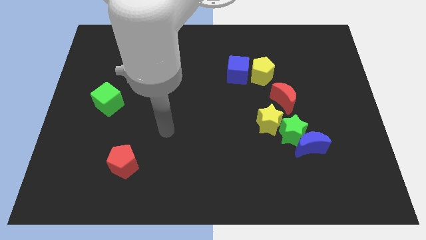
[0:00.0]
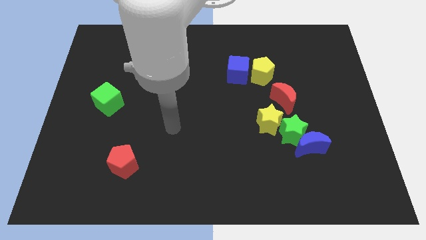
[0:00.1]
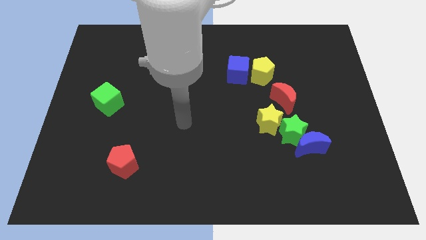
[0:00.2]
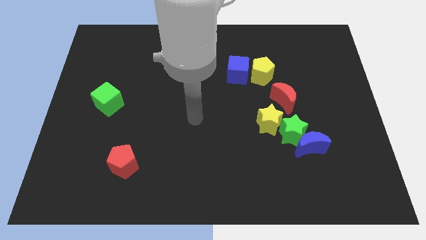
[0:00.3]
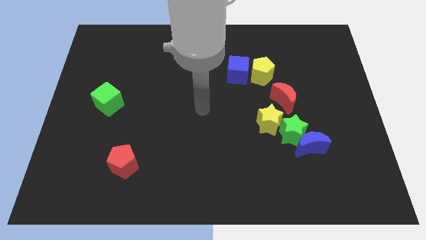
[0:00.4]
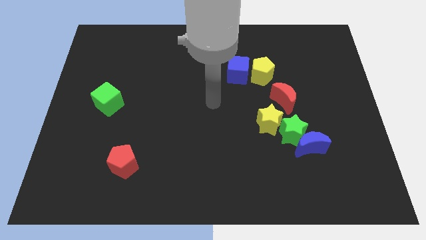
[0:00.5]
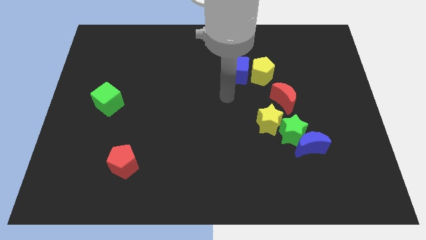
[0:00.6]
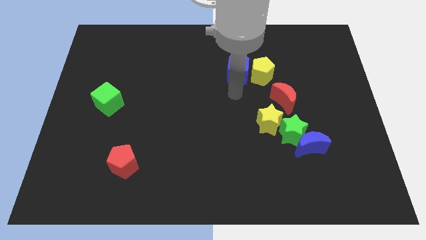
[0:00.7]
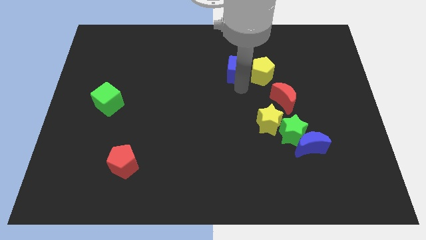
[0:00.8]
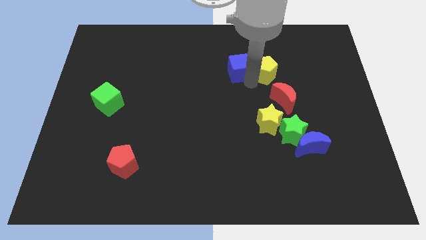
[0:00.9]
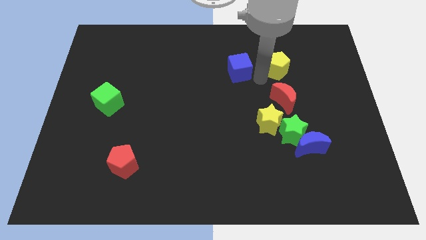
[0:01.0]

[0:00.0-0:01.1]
move the blue cube away from the yellow pentagon

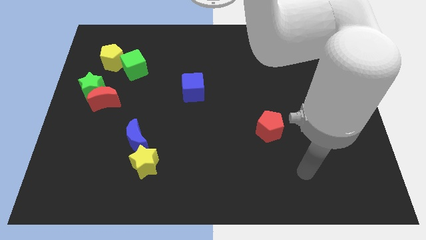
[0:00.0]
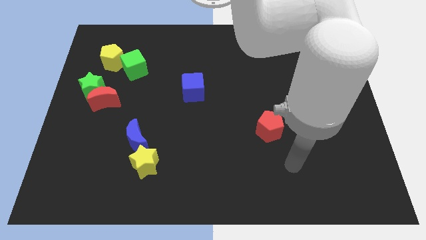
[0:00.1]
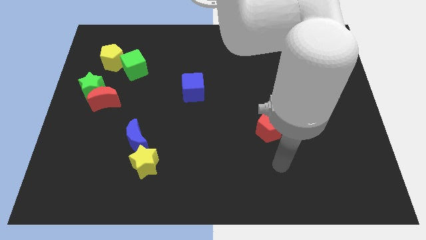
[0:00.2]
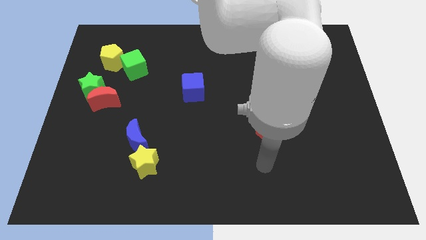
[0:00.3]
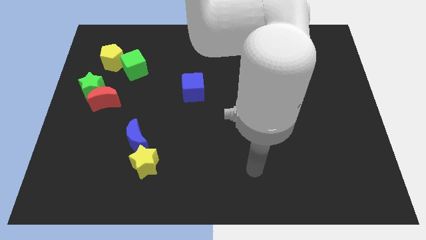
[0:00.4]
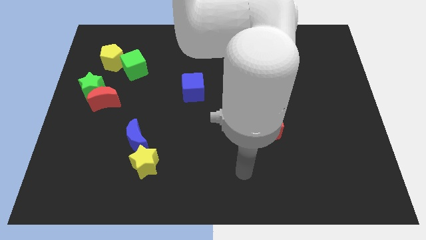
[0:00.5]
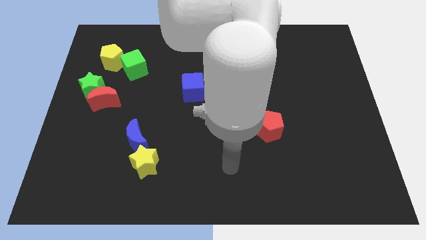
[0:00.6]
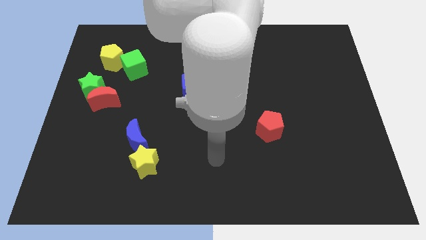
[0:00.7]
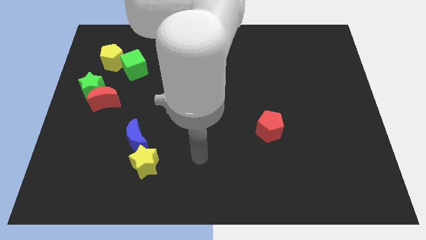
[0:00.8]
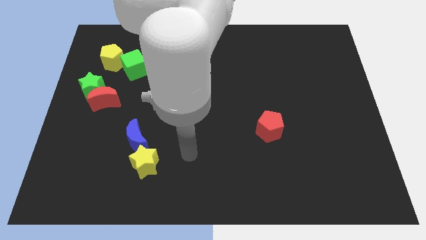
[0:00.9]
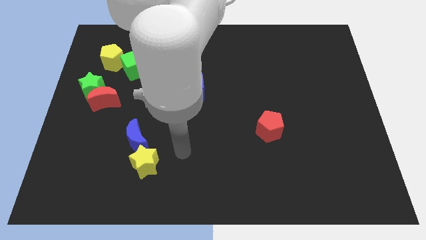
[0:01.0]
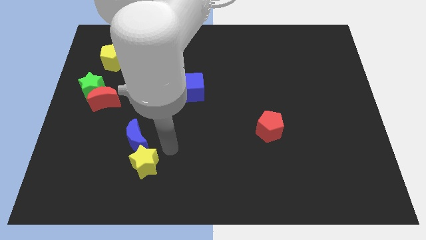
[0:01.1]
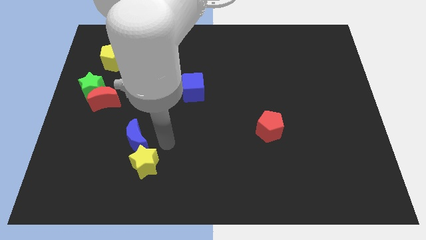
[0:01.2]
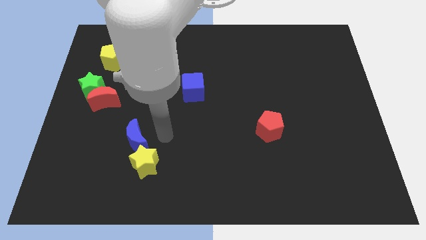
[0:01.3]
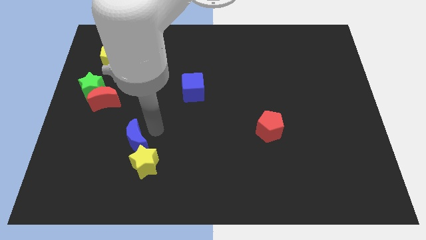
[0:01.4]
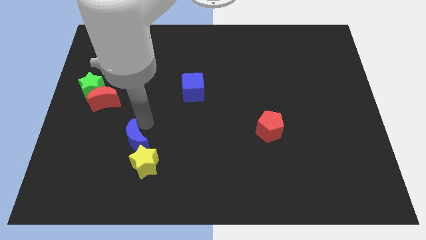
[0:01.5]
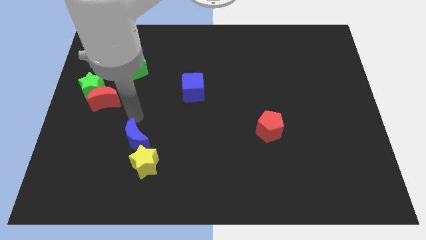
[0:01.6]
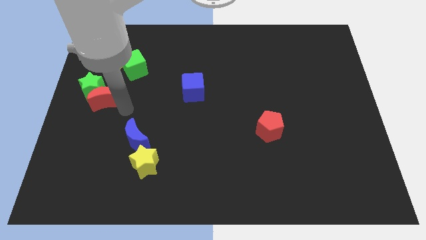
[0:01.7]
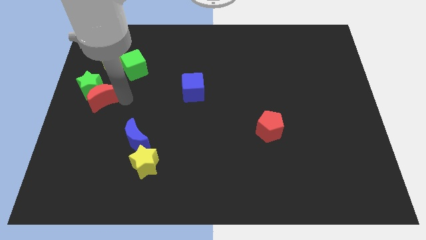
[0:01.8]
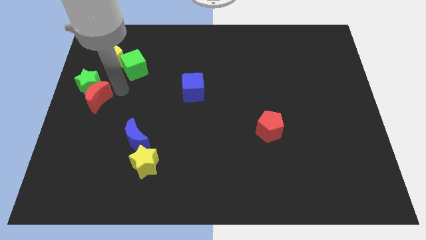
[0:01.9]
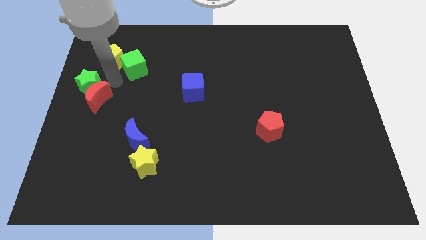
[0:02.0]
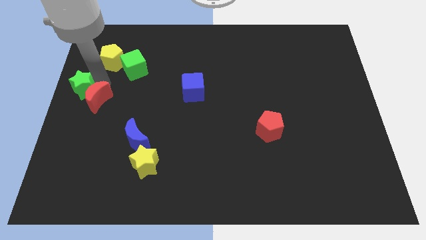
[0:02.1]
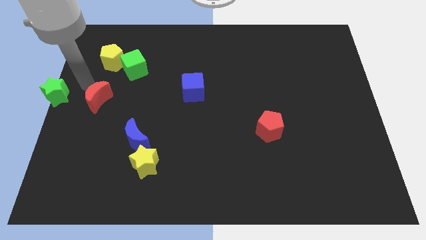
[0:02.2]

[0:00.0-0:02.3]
separate the red moon from the green star

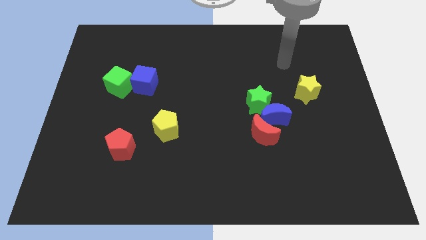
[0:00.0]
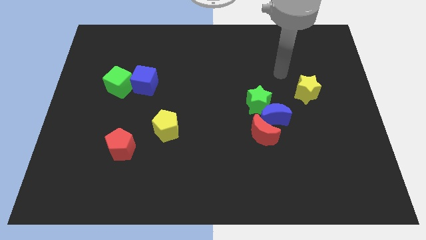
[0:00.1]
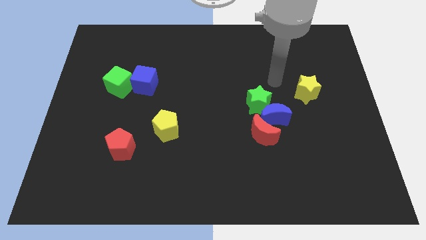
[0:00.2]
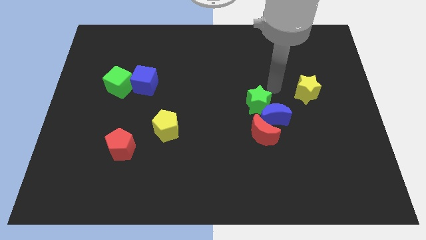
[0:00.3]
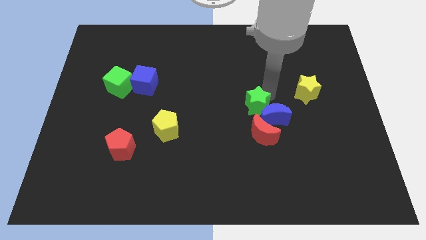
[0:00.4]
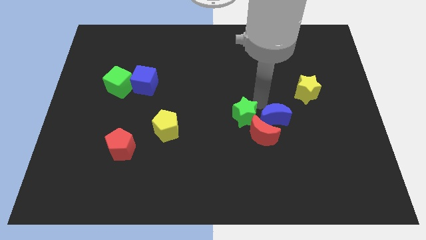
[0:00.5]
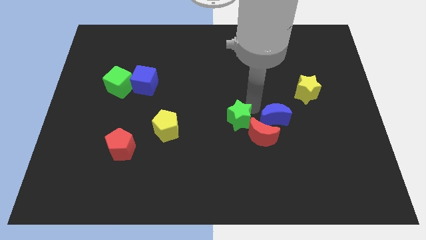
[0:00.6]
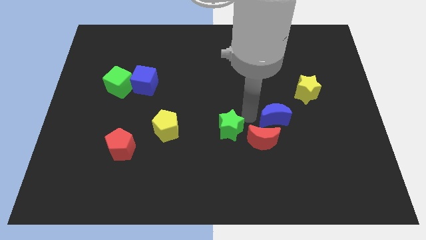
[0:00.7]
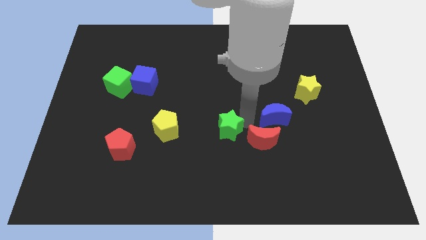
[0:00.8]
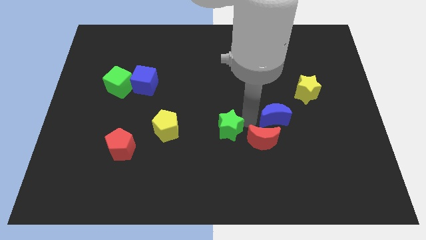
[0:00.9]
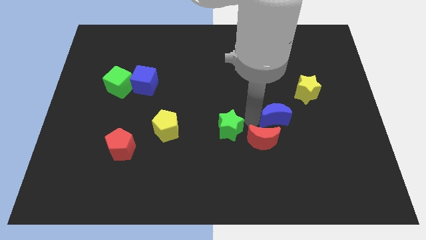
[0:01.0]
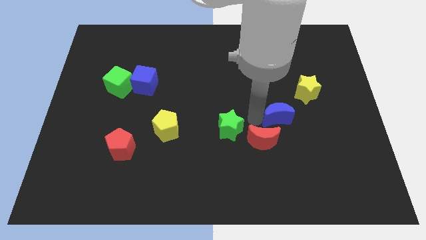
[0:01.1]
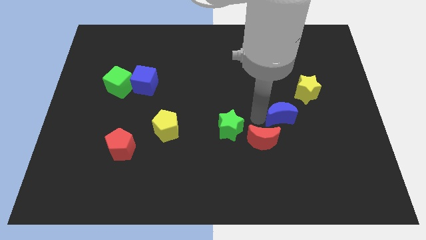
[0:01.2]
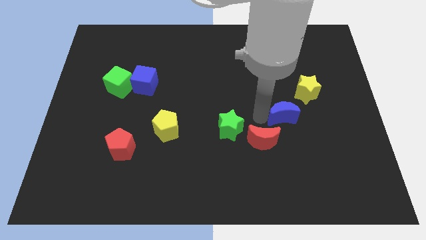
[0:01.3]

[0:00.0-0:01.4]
separate the blue moon from the green star and red moon

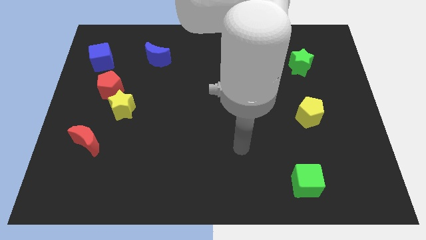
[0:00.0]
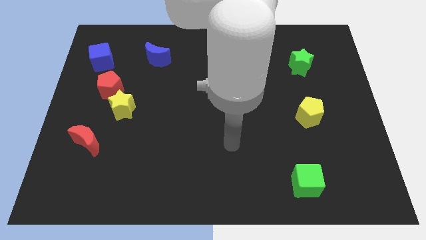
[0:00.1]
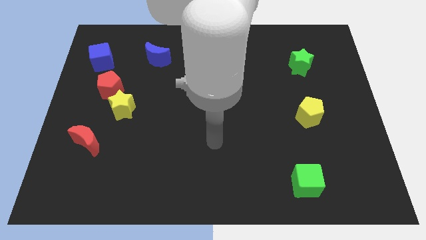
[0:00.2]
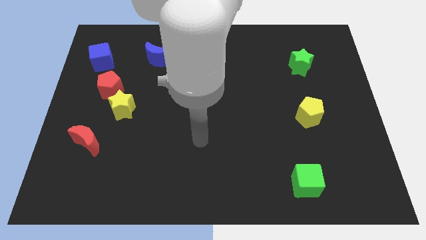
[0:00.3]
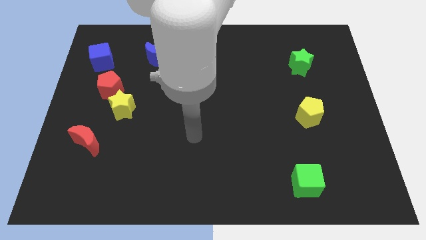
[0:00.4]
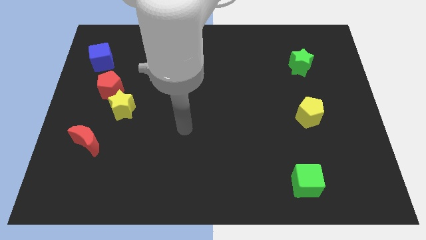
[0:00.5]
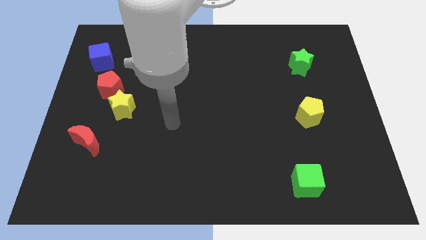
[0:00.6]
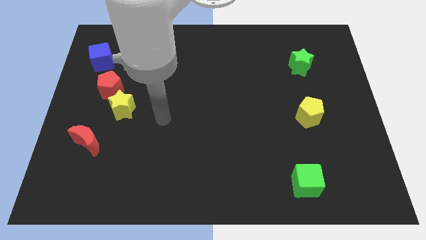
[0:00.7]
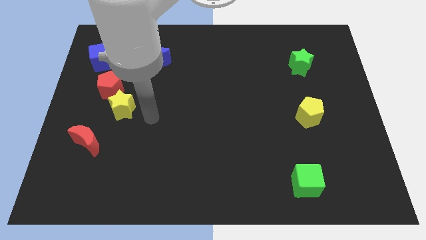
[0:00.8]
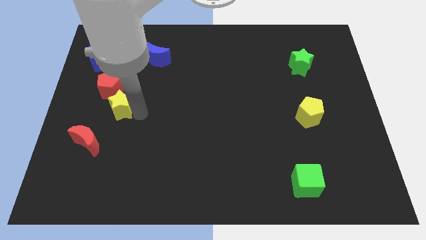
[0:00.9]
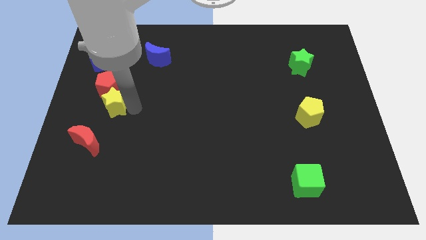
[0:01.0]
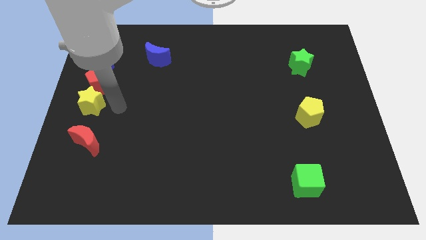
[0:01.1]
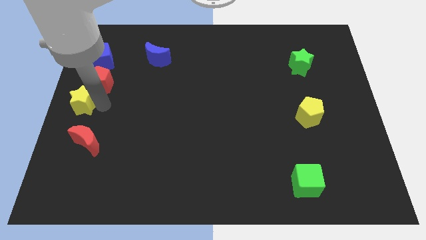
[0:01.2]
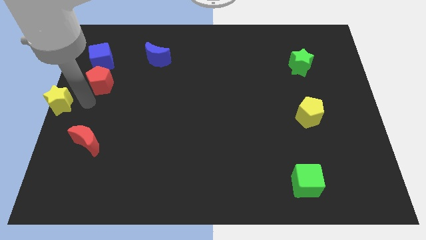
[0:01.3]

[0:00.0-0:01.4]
move the red pentagon away from the yellow star

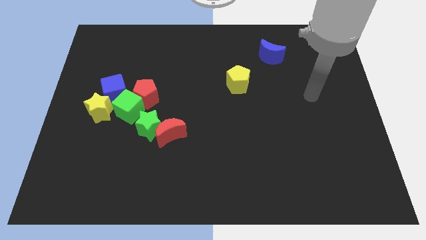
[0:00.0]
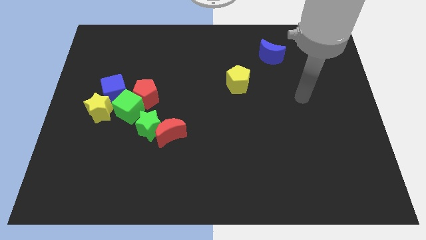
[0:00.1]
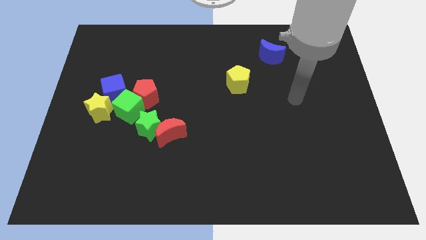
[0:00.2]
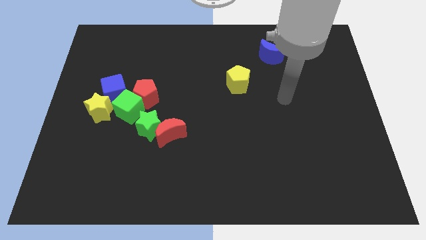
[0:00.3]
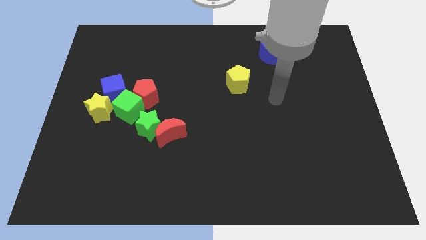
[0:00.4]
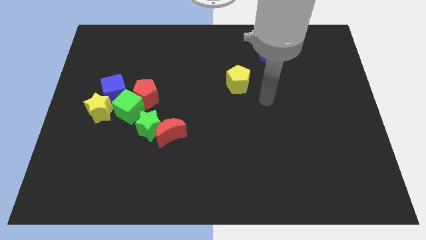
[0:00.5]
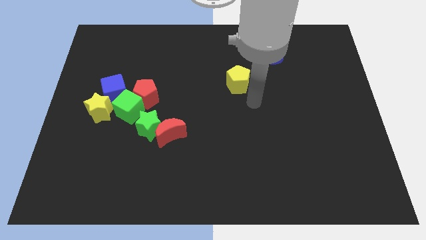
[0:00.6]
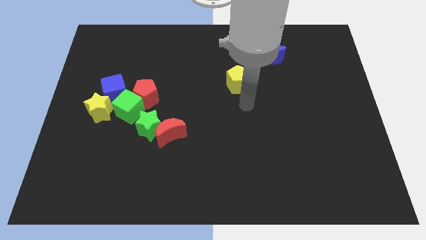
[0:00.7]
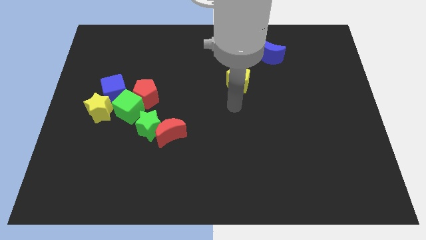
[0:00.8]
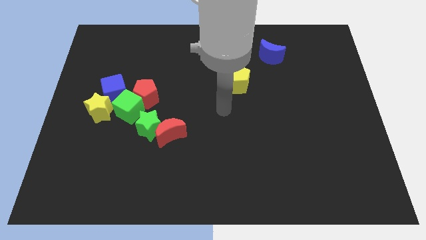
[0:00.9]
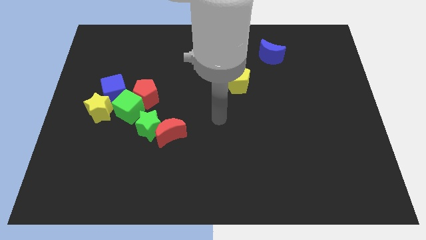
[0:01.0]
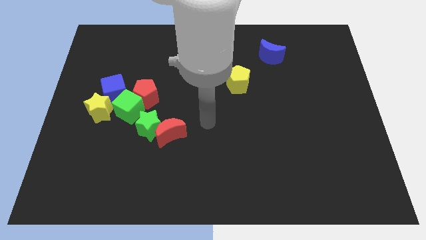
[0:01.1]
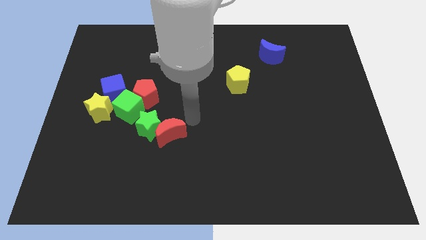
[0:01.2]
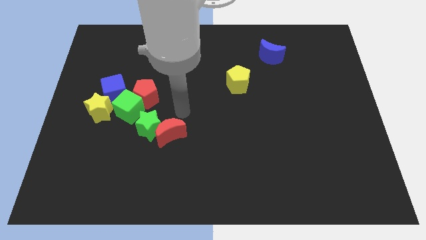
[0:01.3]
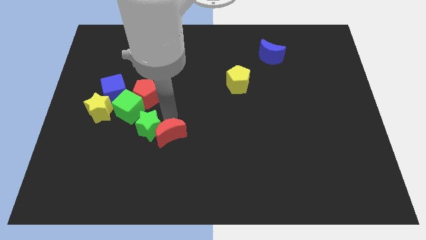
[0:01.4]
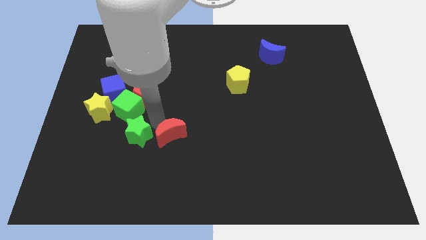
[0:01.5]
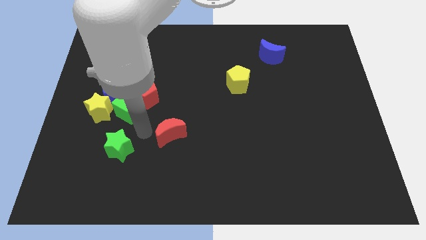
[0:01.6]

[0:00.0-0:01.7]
pull the red moon apart from the green star

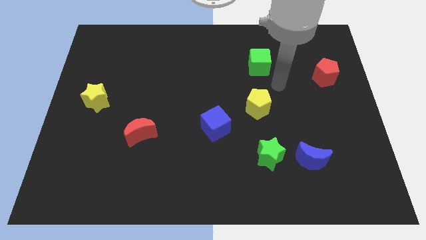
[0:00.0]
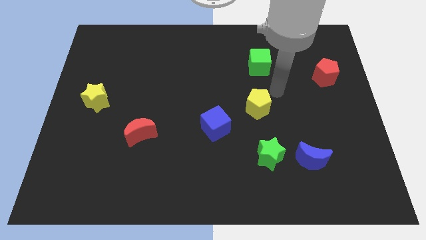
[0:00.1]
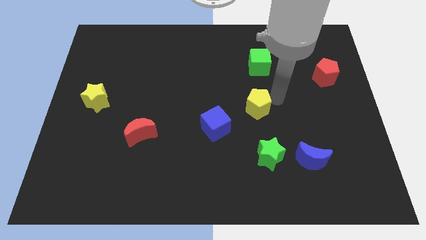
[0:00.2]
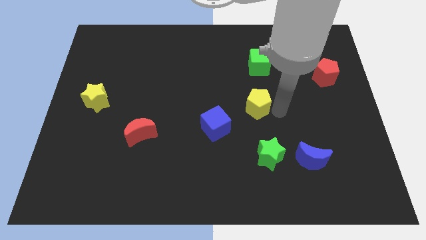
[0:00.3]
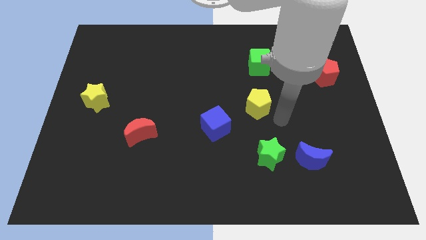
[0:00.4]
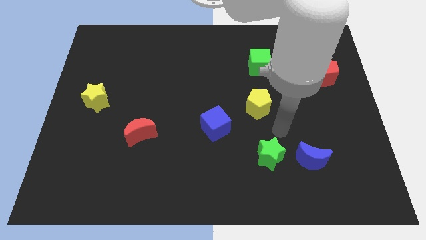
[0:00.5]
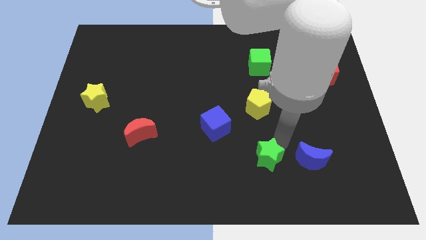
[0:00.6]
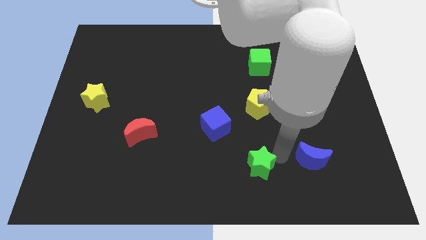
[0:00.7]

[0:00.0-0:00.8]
move the blue moon away from the green star

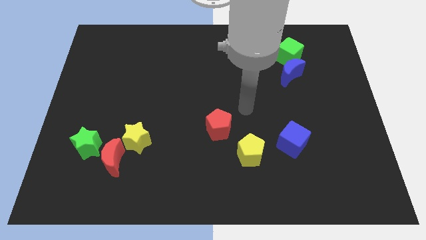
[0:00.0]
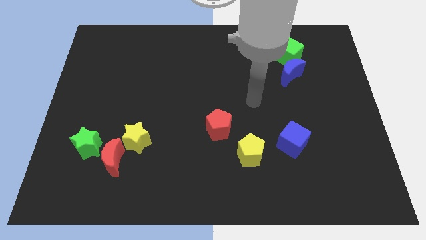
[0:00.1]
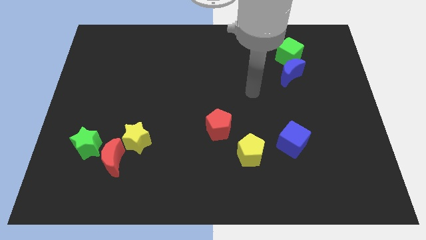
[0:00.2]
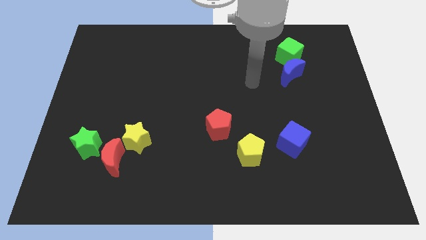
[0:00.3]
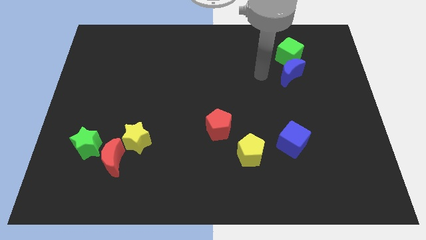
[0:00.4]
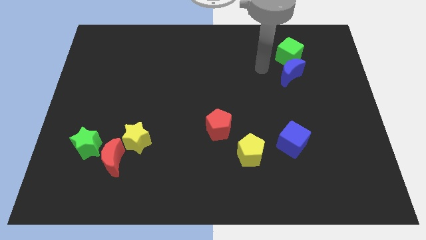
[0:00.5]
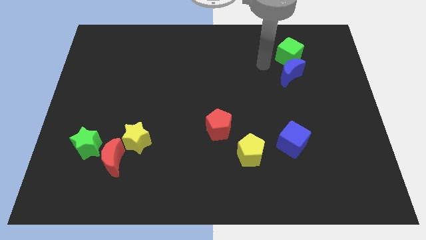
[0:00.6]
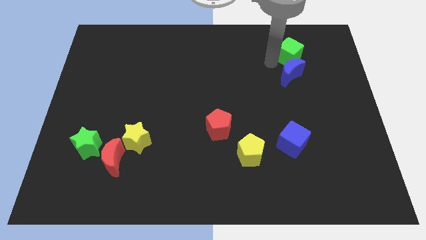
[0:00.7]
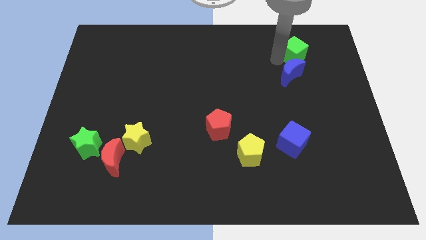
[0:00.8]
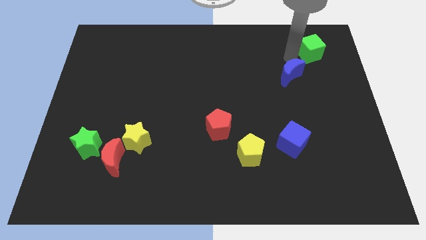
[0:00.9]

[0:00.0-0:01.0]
separate the blue moon from the green cube
